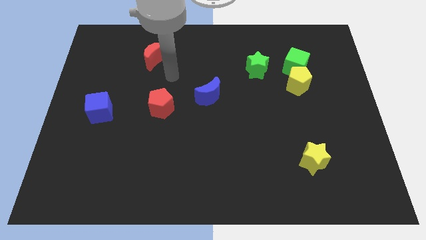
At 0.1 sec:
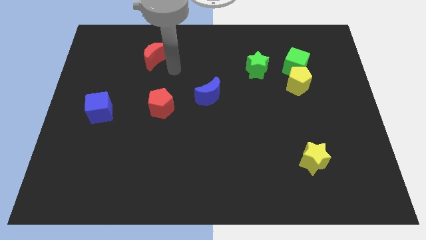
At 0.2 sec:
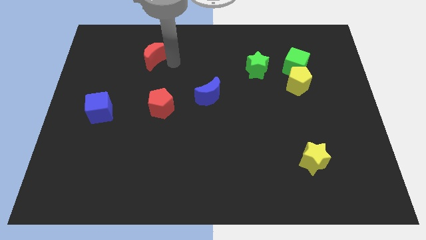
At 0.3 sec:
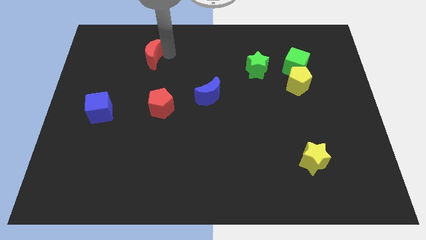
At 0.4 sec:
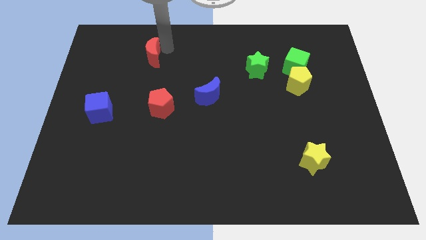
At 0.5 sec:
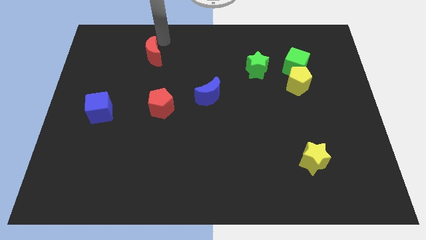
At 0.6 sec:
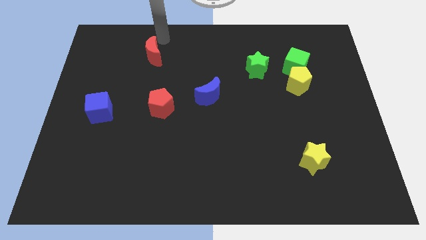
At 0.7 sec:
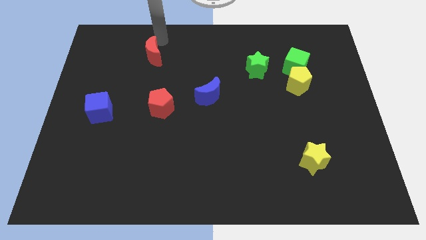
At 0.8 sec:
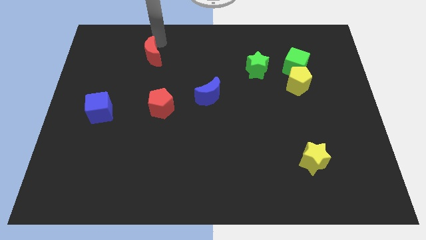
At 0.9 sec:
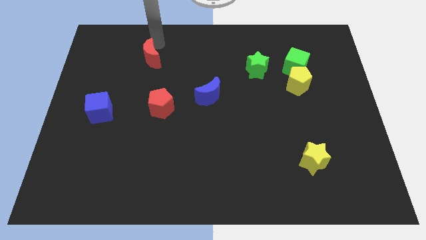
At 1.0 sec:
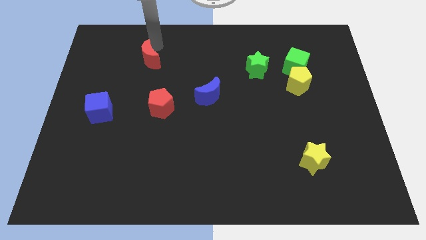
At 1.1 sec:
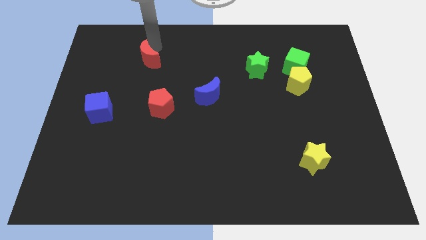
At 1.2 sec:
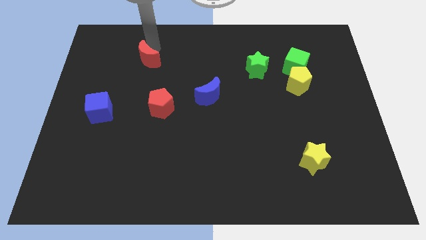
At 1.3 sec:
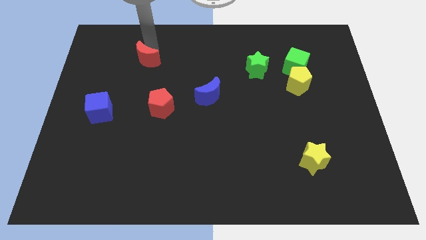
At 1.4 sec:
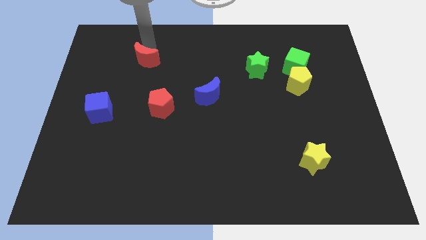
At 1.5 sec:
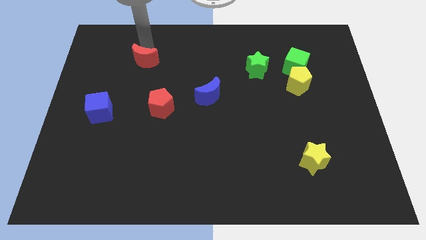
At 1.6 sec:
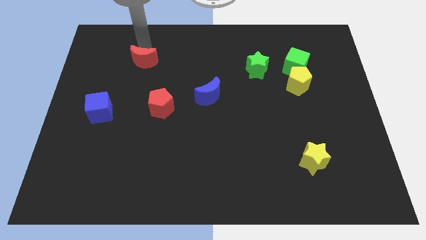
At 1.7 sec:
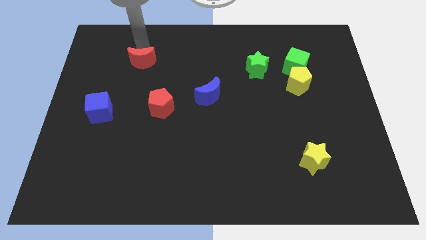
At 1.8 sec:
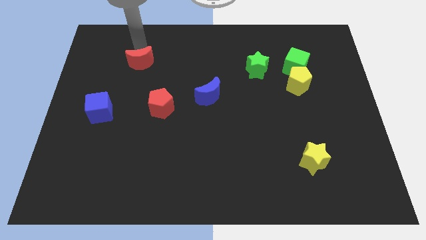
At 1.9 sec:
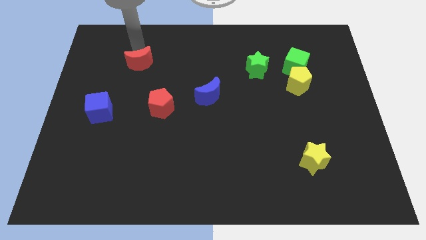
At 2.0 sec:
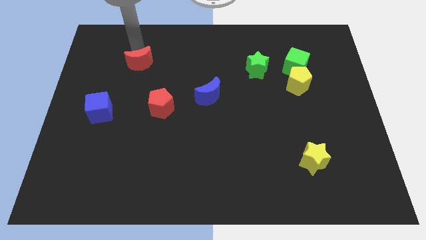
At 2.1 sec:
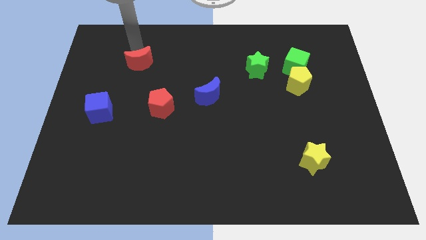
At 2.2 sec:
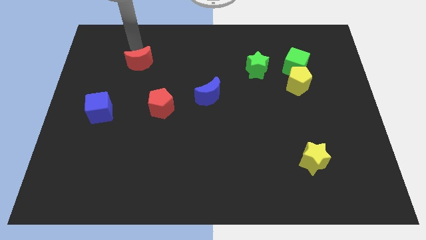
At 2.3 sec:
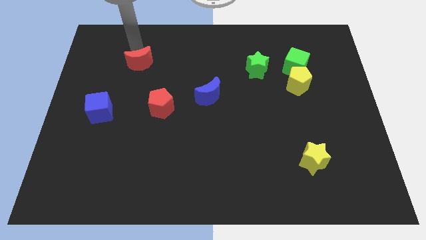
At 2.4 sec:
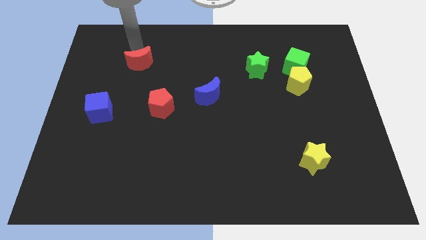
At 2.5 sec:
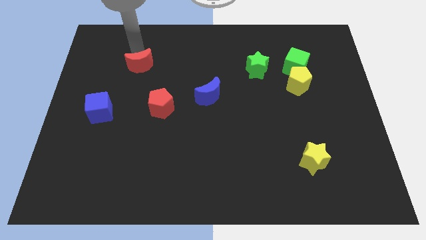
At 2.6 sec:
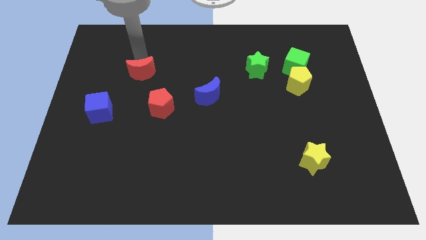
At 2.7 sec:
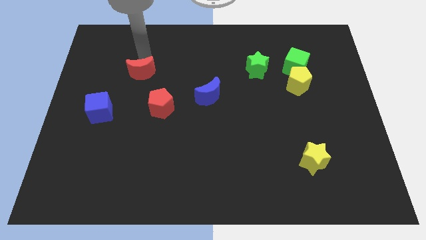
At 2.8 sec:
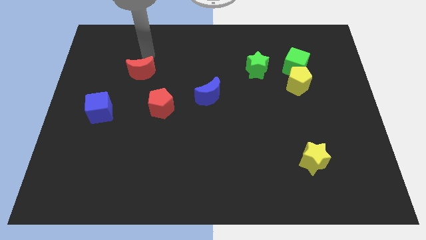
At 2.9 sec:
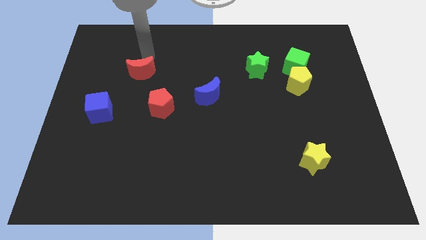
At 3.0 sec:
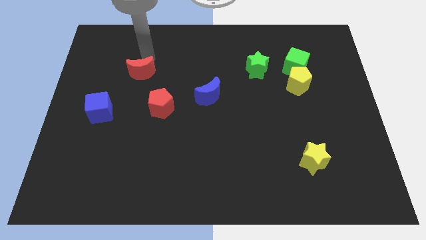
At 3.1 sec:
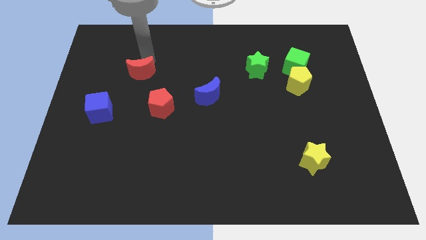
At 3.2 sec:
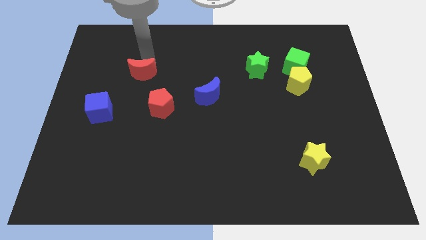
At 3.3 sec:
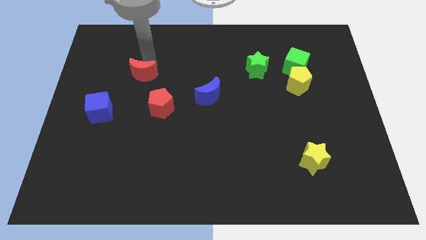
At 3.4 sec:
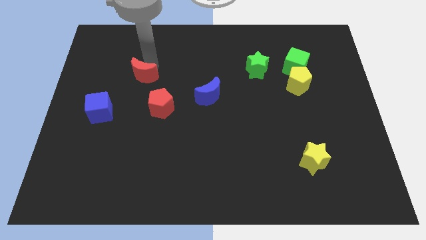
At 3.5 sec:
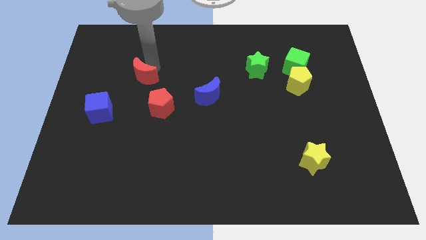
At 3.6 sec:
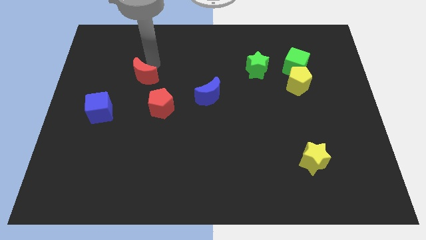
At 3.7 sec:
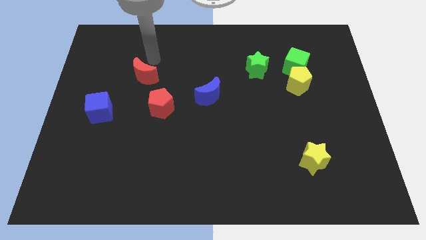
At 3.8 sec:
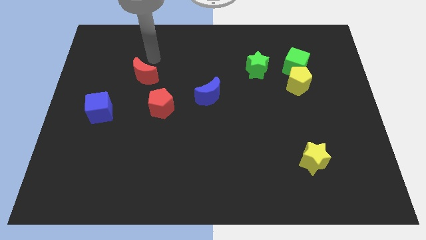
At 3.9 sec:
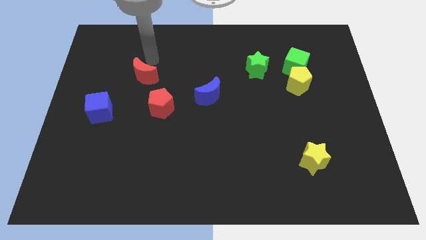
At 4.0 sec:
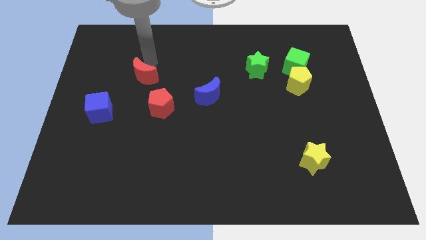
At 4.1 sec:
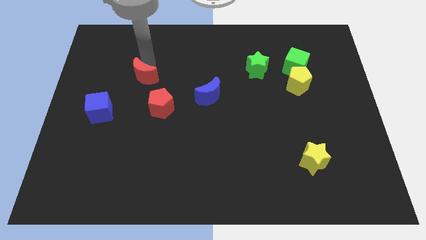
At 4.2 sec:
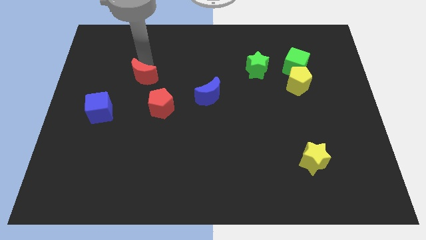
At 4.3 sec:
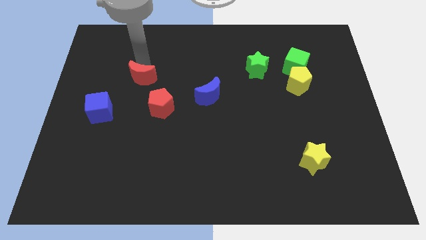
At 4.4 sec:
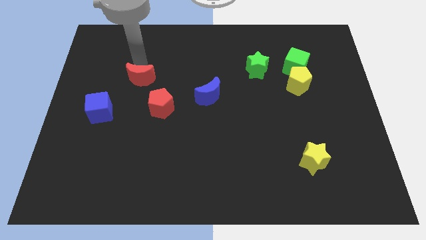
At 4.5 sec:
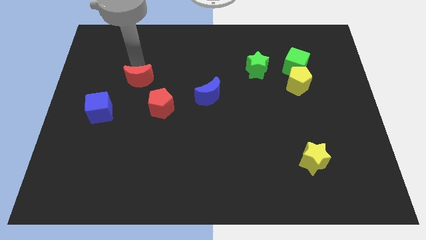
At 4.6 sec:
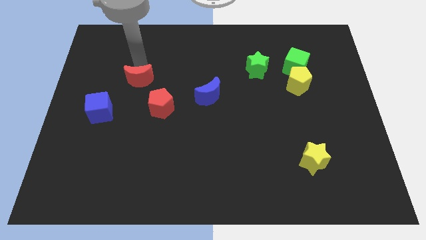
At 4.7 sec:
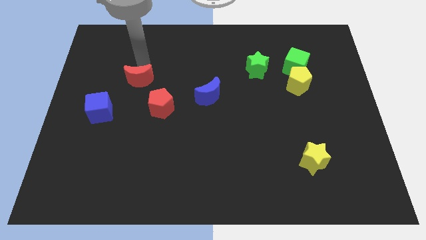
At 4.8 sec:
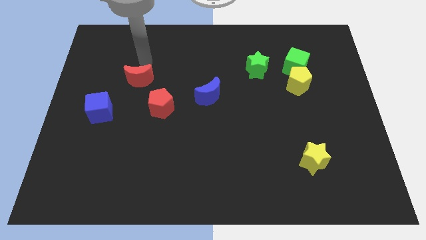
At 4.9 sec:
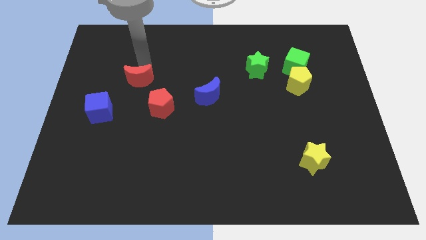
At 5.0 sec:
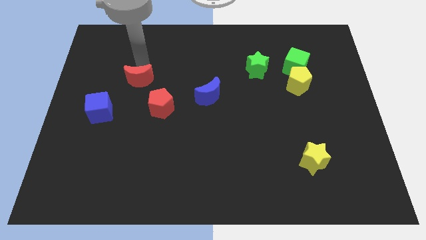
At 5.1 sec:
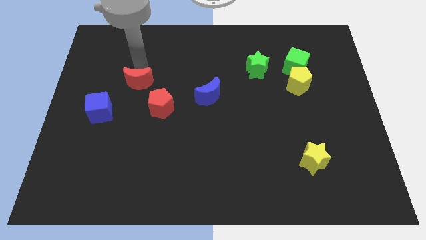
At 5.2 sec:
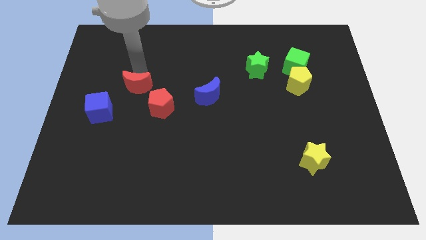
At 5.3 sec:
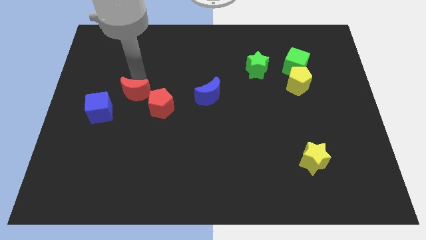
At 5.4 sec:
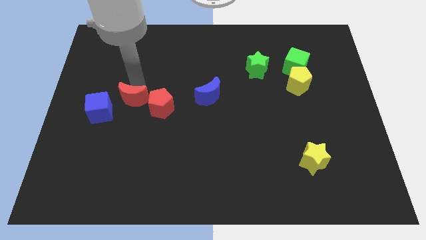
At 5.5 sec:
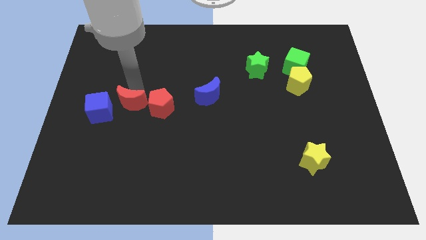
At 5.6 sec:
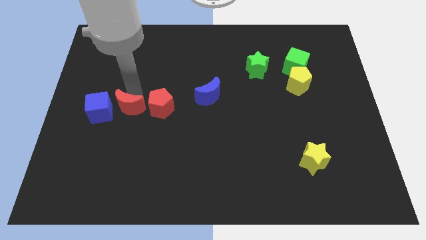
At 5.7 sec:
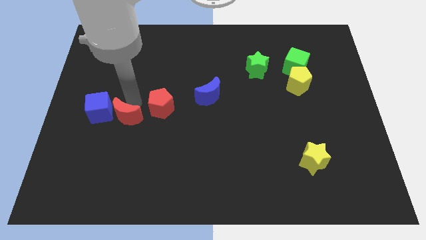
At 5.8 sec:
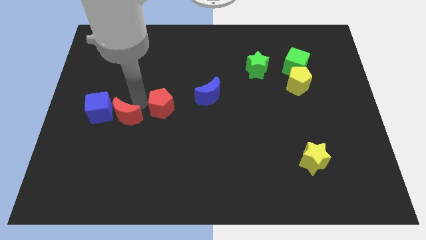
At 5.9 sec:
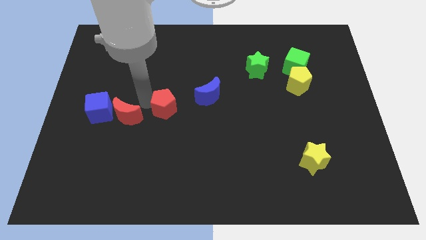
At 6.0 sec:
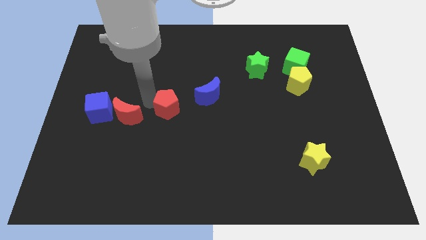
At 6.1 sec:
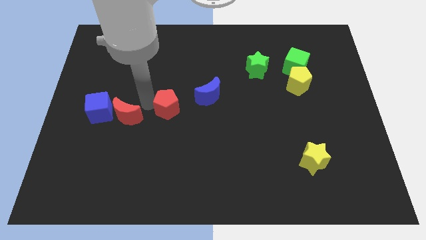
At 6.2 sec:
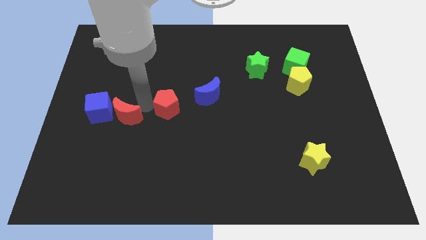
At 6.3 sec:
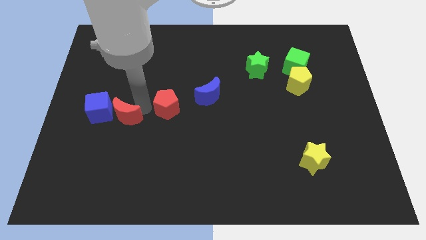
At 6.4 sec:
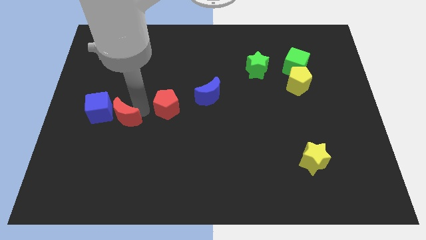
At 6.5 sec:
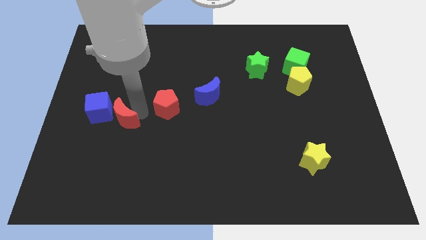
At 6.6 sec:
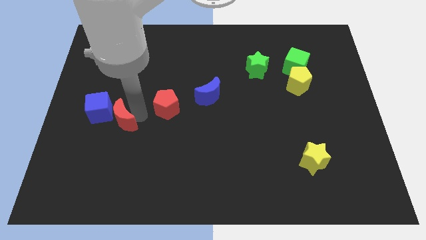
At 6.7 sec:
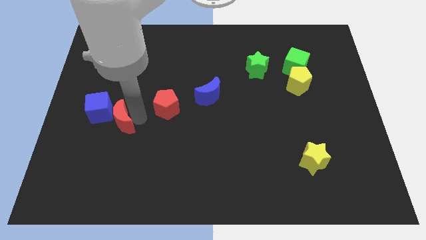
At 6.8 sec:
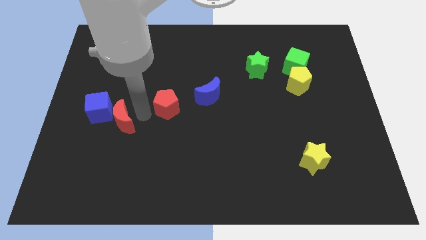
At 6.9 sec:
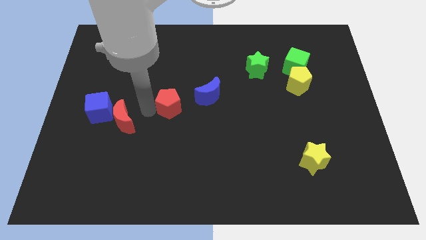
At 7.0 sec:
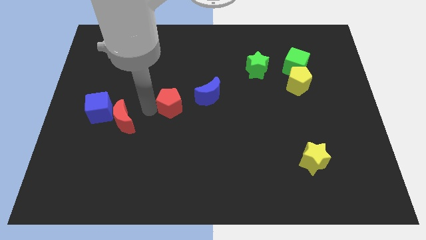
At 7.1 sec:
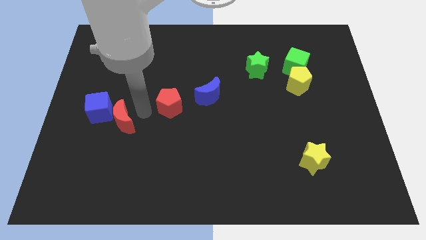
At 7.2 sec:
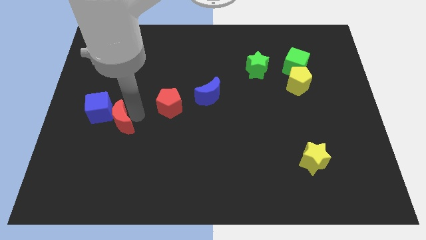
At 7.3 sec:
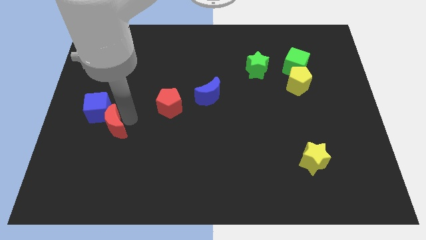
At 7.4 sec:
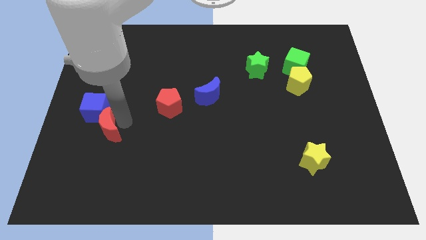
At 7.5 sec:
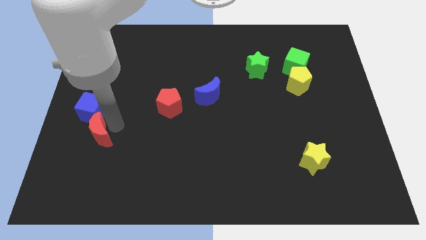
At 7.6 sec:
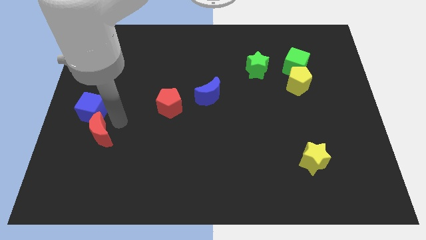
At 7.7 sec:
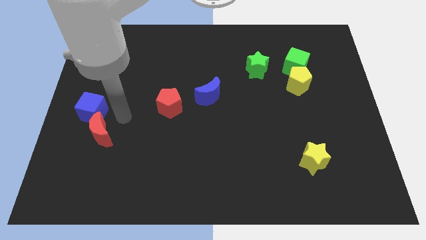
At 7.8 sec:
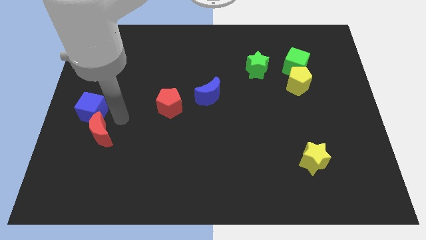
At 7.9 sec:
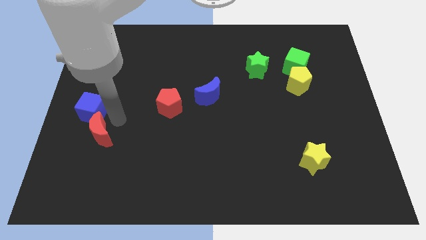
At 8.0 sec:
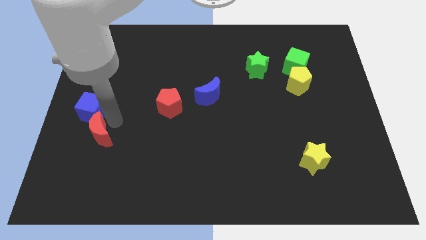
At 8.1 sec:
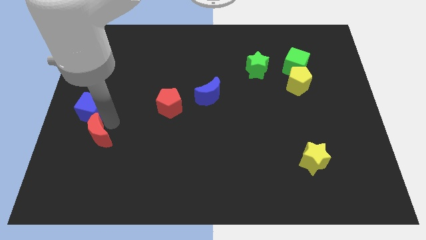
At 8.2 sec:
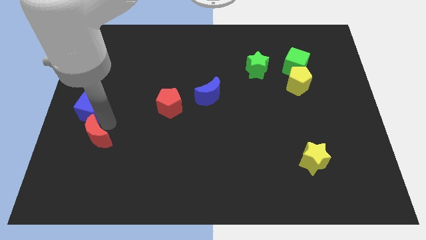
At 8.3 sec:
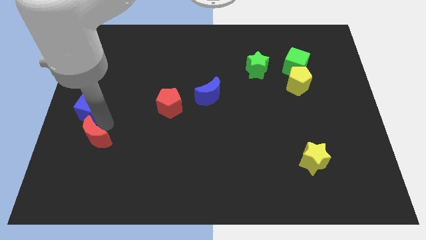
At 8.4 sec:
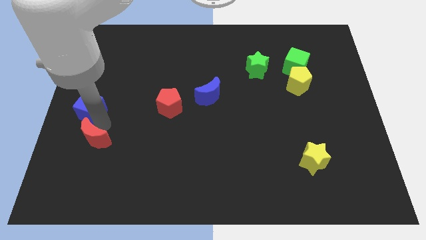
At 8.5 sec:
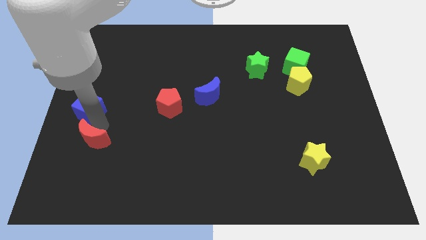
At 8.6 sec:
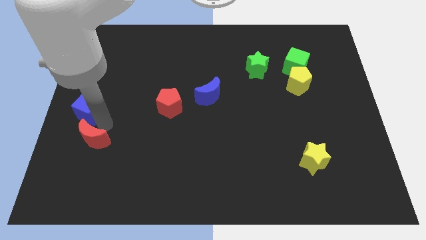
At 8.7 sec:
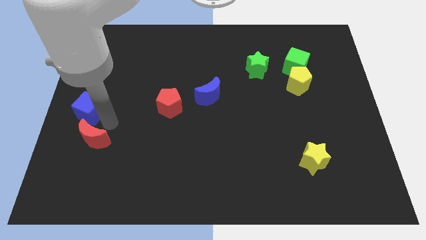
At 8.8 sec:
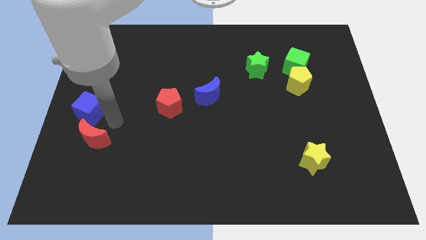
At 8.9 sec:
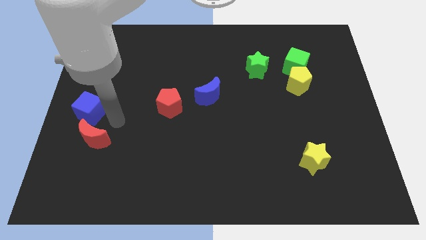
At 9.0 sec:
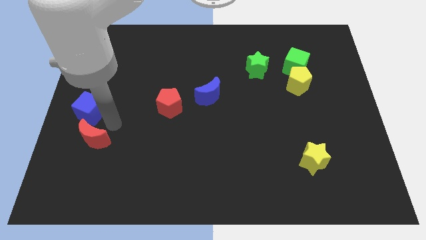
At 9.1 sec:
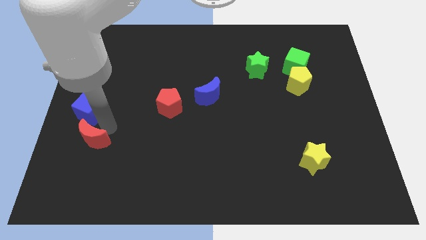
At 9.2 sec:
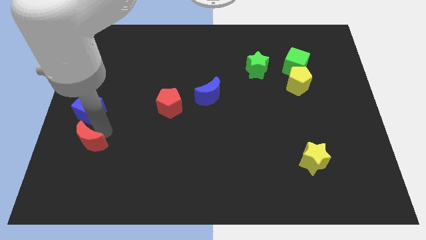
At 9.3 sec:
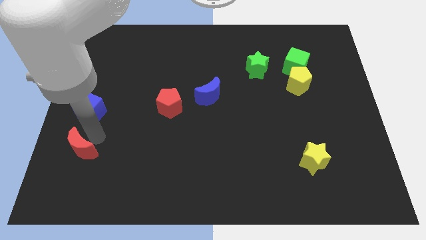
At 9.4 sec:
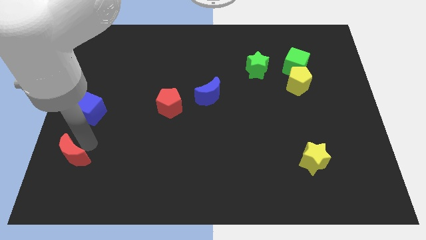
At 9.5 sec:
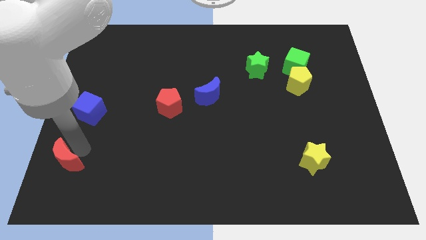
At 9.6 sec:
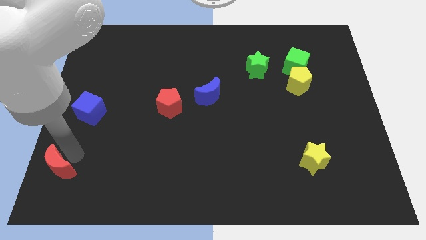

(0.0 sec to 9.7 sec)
move the red moon to the bottom left
